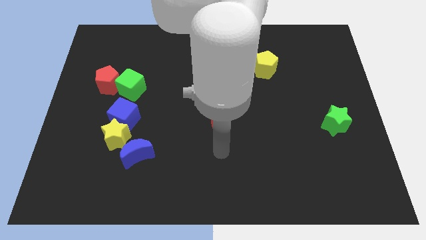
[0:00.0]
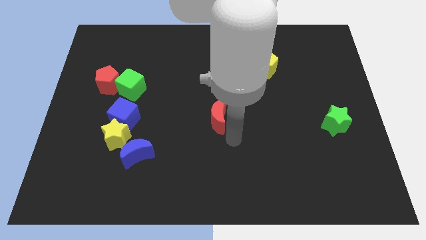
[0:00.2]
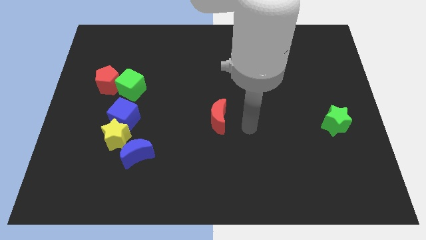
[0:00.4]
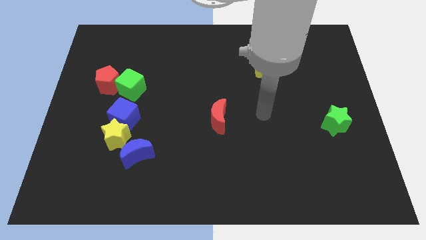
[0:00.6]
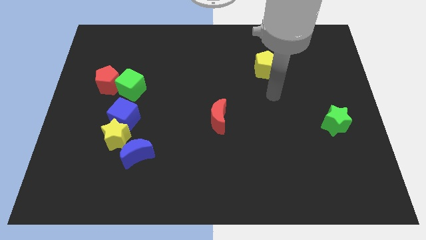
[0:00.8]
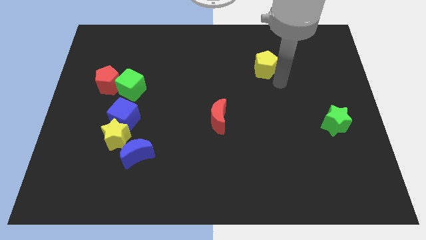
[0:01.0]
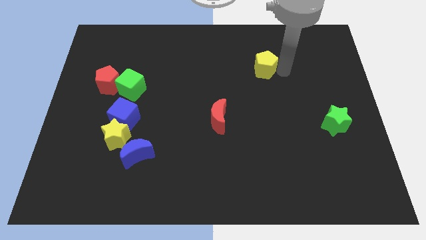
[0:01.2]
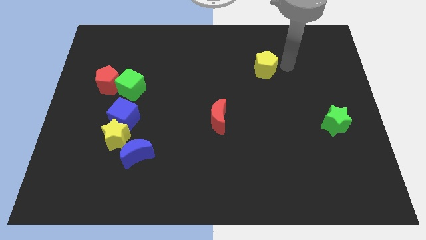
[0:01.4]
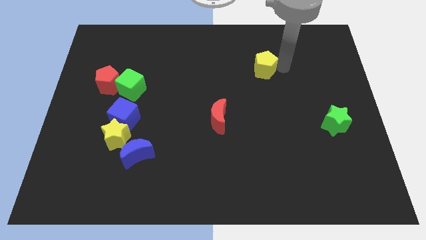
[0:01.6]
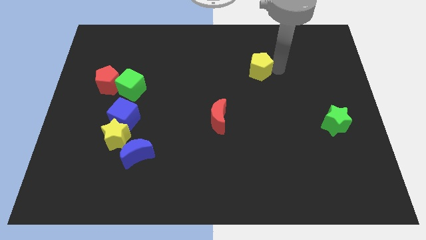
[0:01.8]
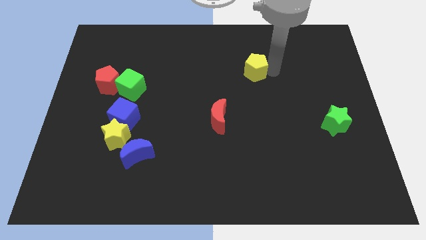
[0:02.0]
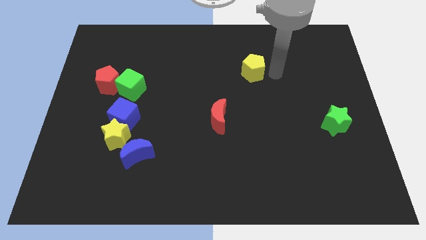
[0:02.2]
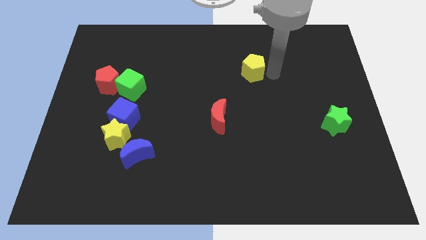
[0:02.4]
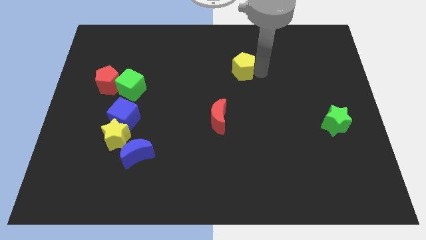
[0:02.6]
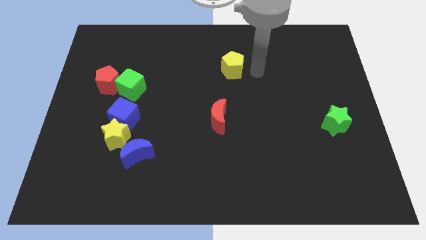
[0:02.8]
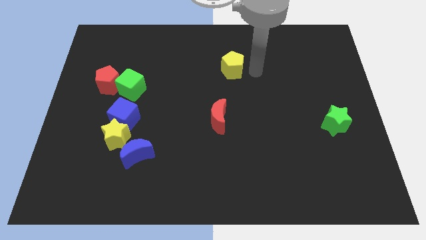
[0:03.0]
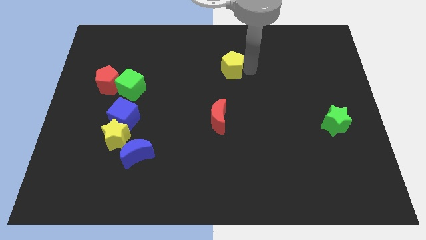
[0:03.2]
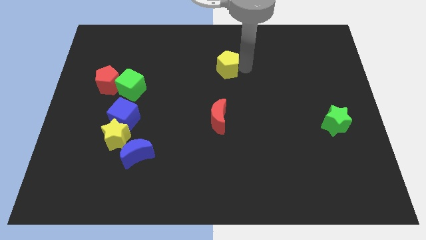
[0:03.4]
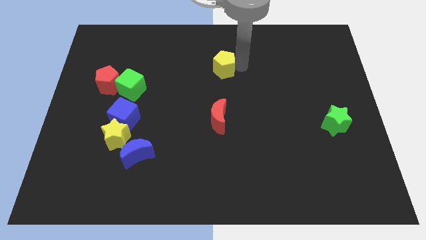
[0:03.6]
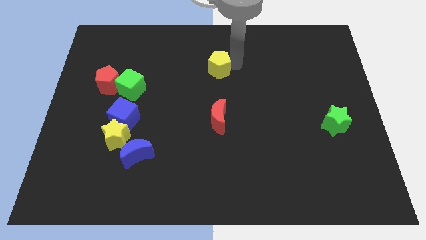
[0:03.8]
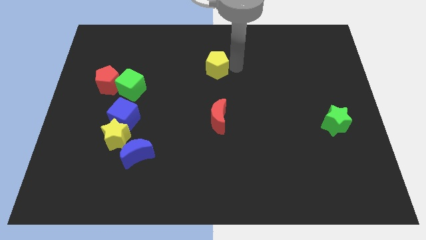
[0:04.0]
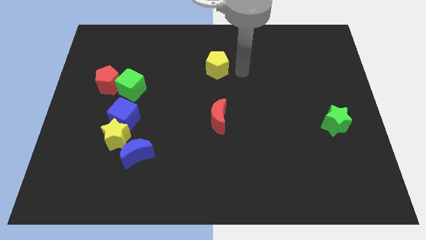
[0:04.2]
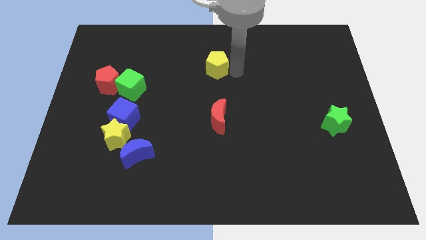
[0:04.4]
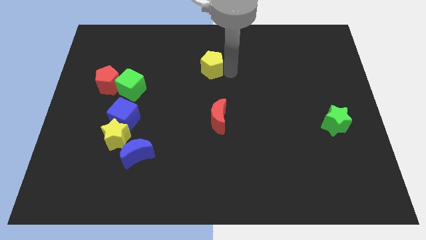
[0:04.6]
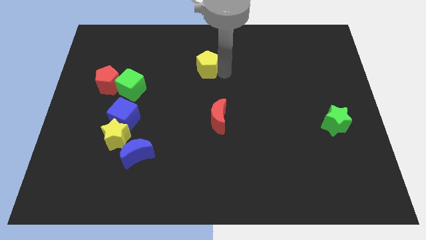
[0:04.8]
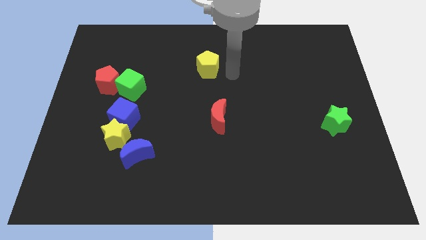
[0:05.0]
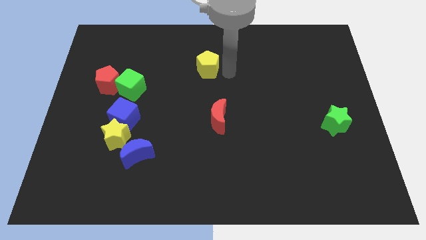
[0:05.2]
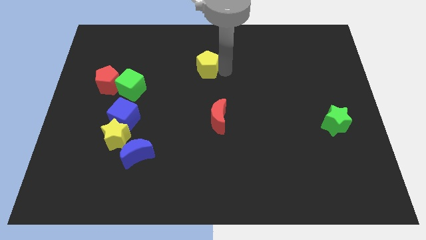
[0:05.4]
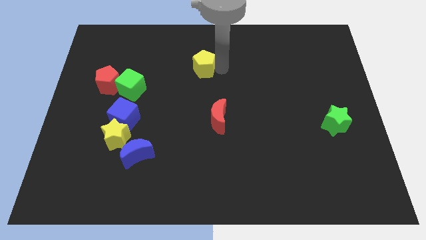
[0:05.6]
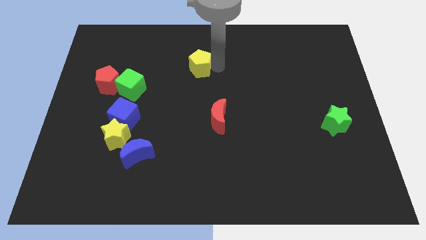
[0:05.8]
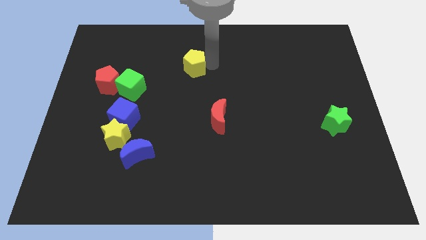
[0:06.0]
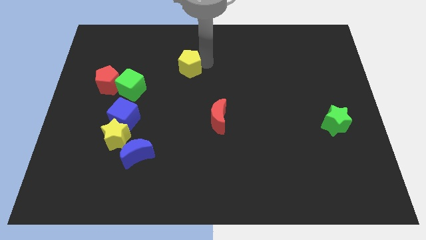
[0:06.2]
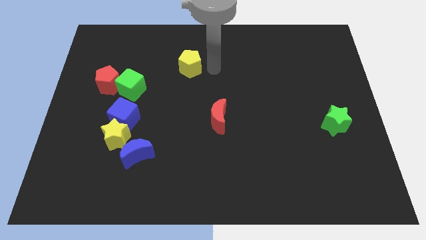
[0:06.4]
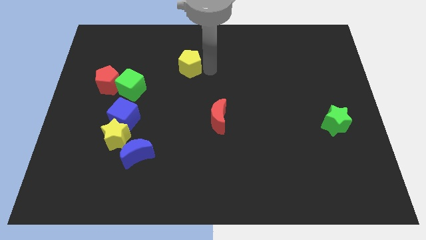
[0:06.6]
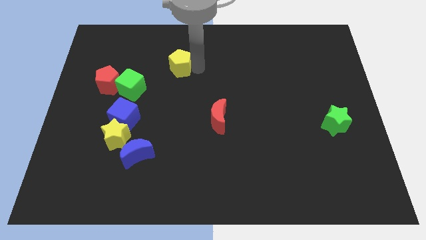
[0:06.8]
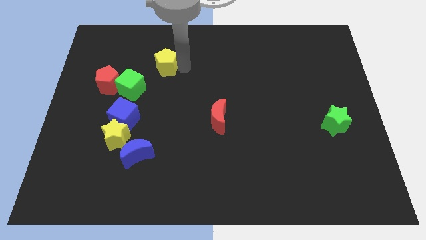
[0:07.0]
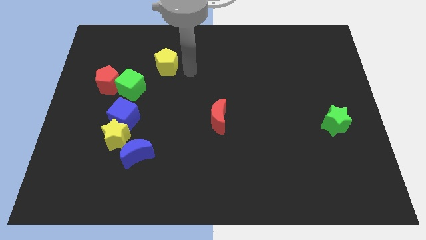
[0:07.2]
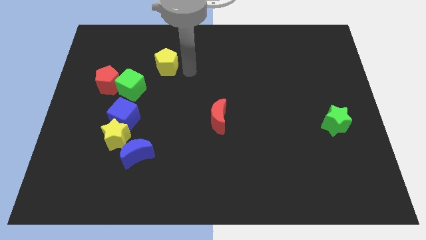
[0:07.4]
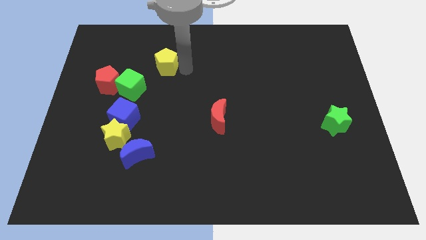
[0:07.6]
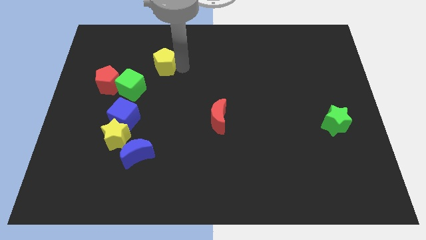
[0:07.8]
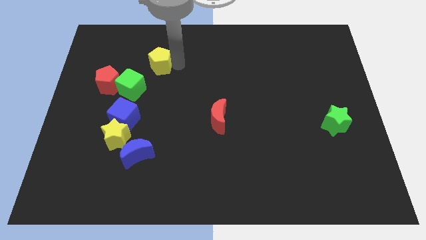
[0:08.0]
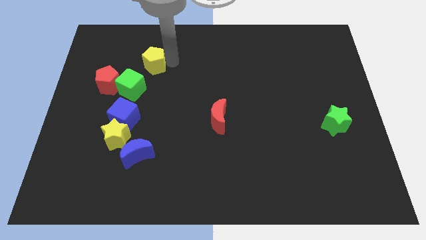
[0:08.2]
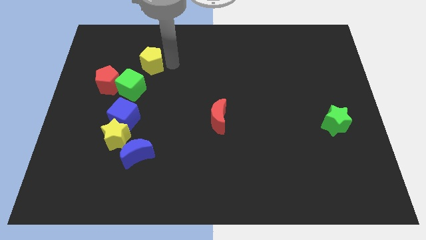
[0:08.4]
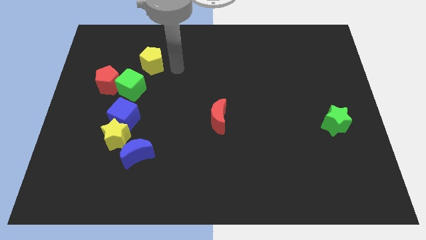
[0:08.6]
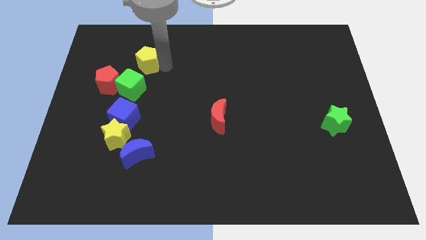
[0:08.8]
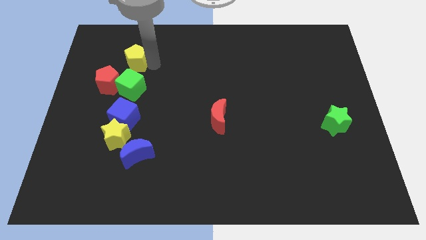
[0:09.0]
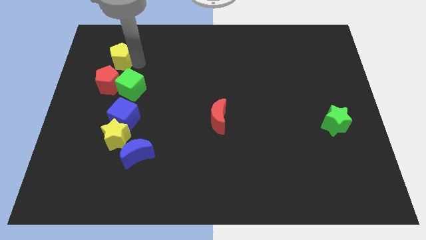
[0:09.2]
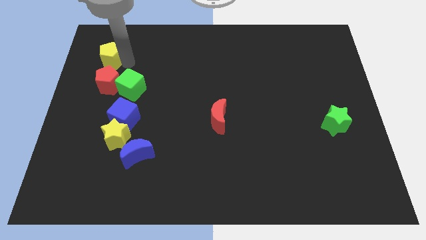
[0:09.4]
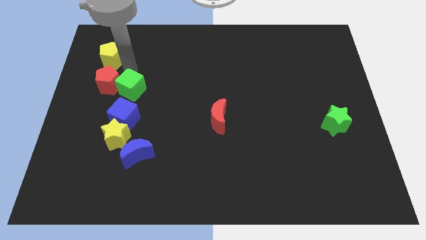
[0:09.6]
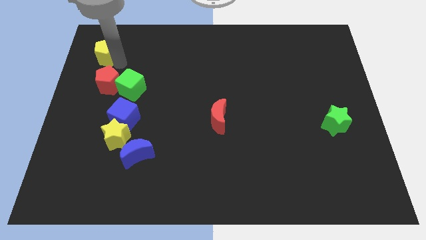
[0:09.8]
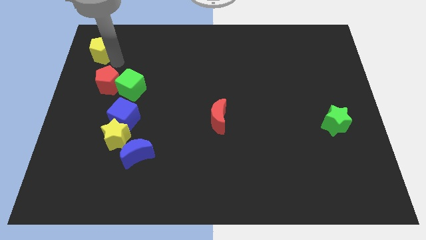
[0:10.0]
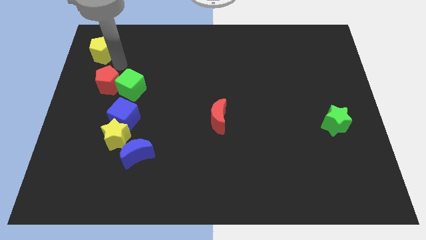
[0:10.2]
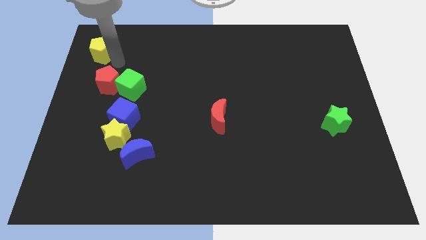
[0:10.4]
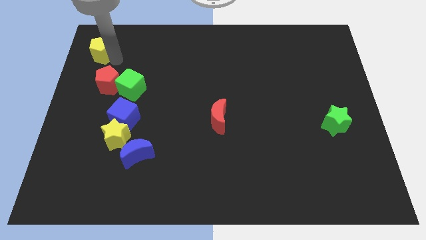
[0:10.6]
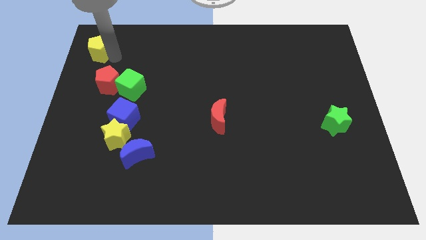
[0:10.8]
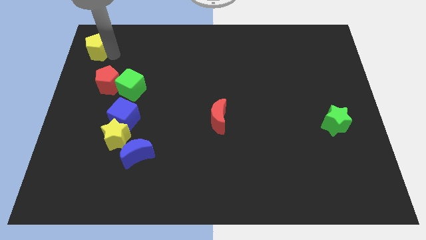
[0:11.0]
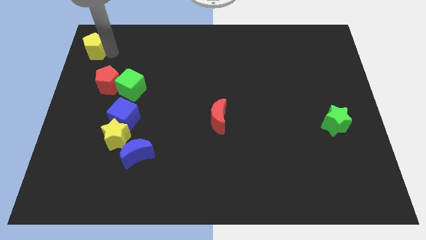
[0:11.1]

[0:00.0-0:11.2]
push the yellow pentagon to the top left corner

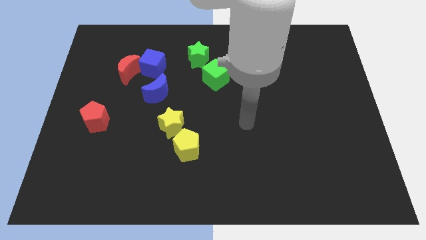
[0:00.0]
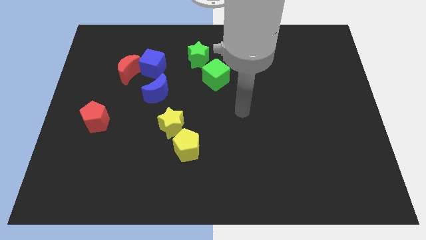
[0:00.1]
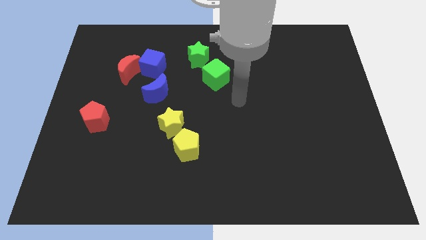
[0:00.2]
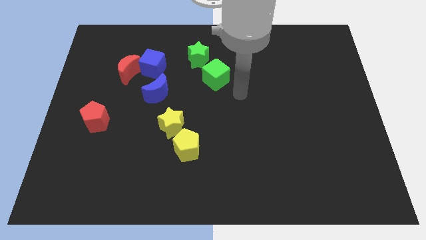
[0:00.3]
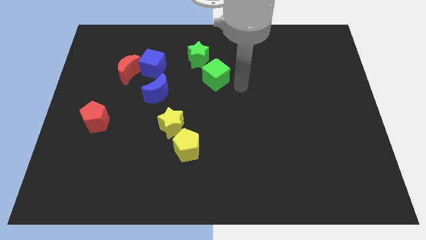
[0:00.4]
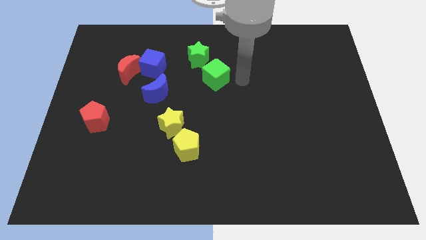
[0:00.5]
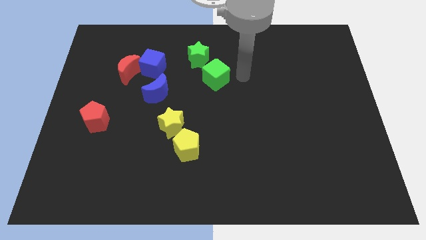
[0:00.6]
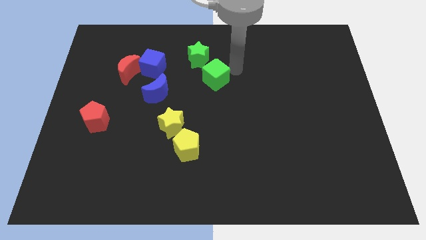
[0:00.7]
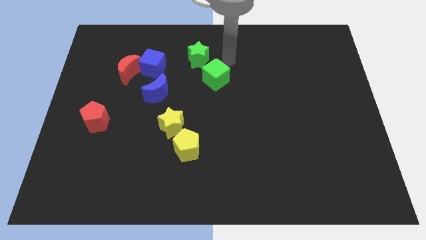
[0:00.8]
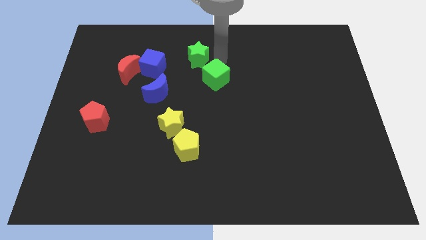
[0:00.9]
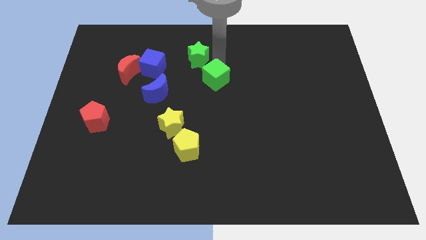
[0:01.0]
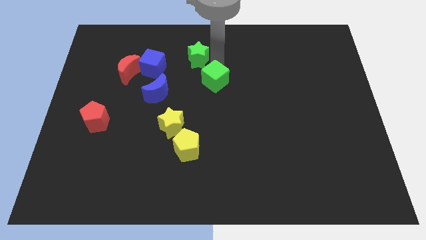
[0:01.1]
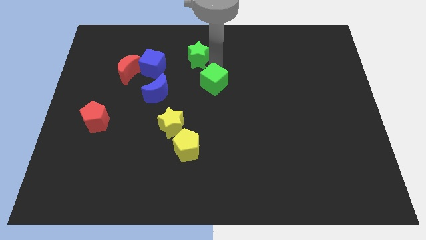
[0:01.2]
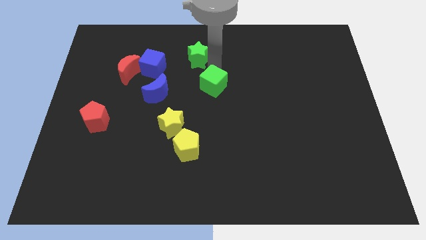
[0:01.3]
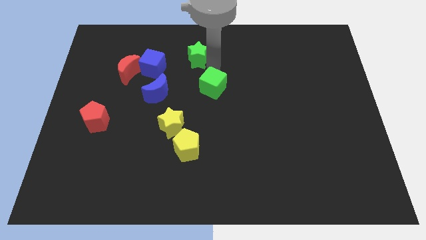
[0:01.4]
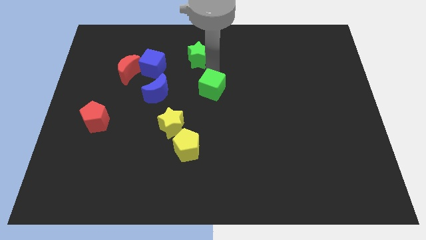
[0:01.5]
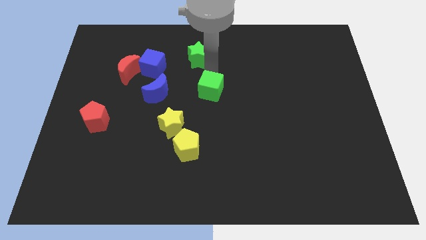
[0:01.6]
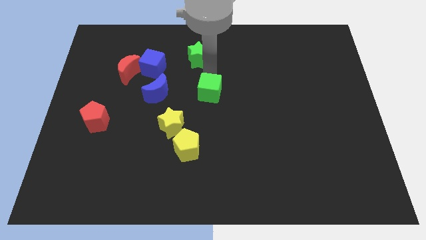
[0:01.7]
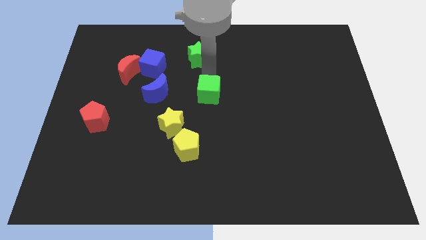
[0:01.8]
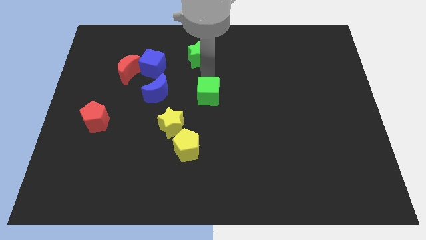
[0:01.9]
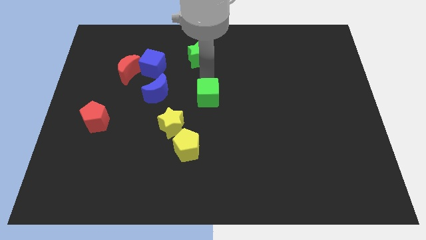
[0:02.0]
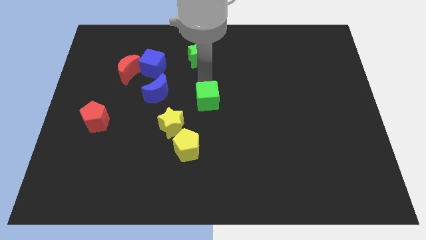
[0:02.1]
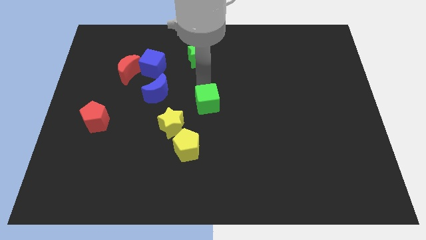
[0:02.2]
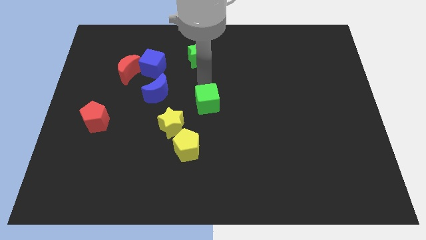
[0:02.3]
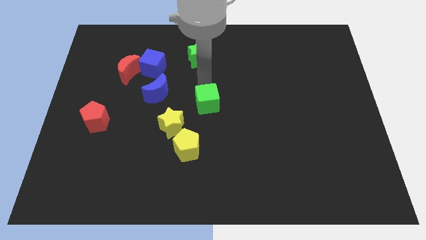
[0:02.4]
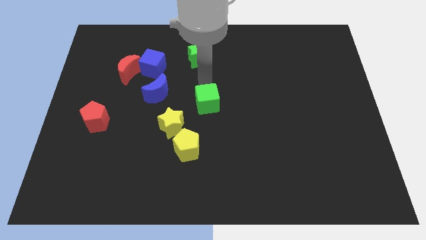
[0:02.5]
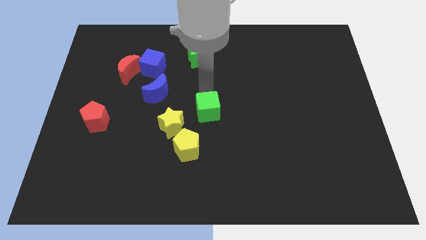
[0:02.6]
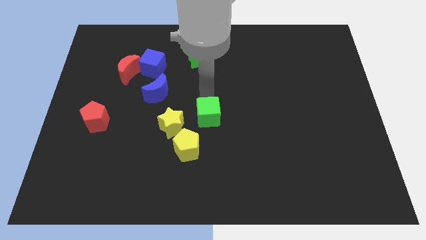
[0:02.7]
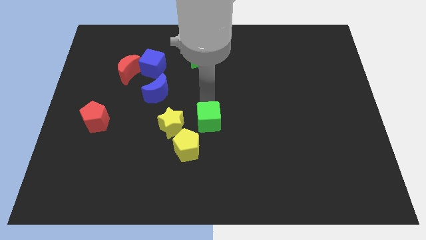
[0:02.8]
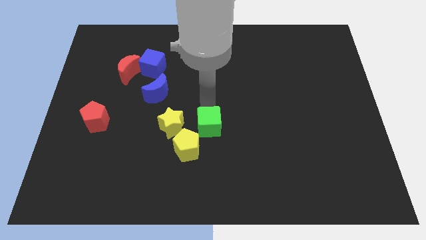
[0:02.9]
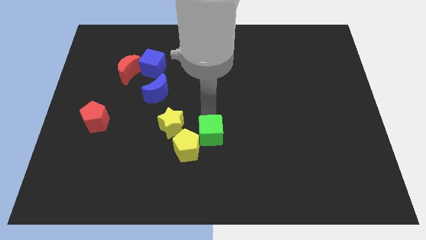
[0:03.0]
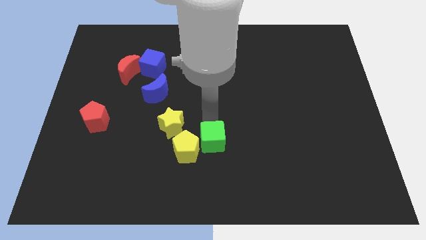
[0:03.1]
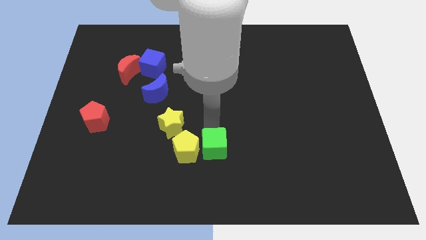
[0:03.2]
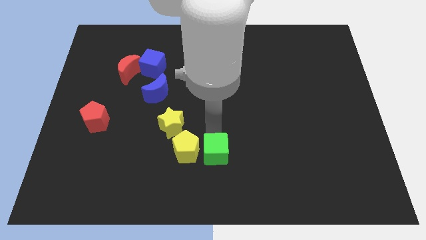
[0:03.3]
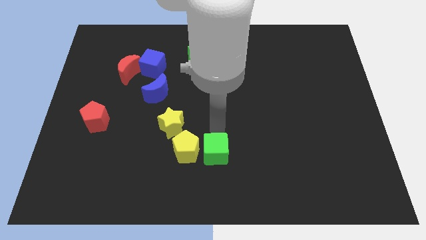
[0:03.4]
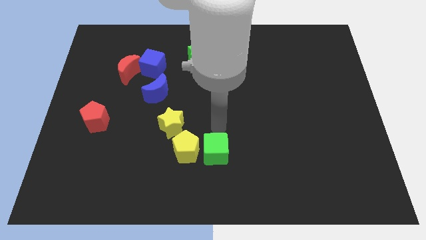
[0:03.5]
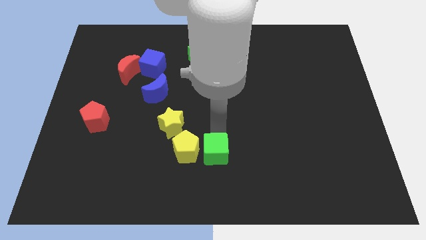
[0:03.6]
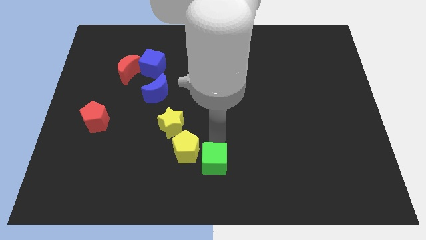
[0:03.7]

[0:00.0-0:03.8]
move the green cube to the bottom
